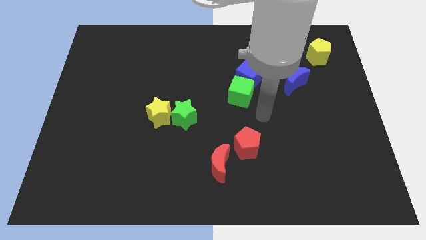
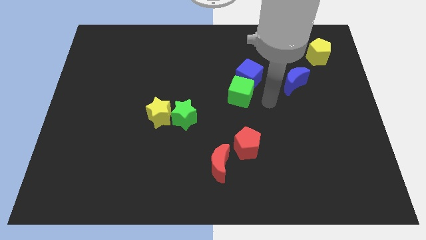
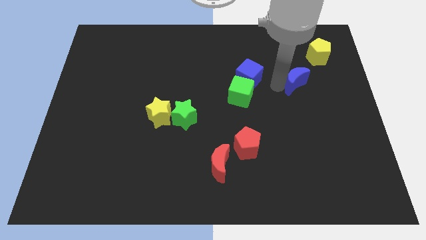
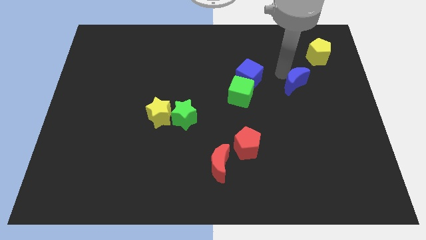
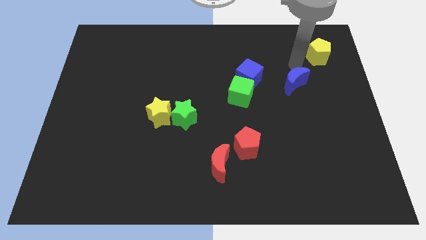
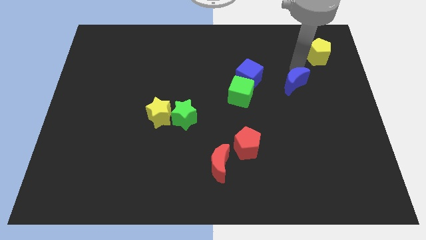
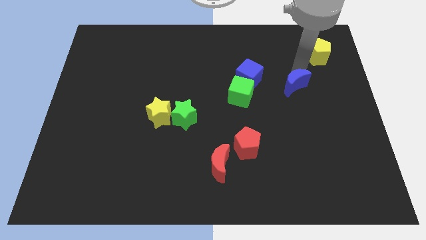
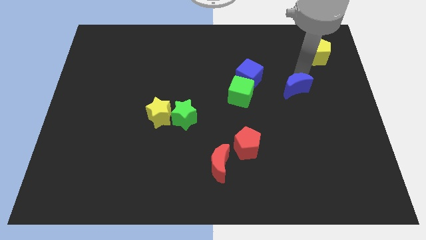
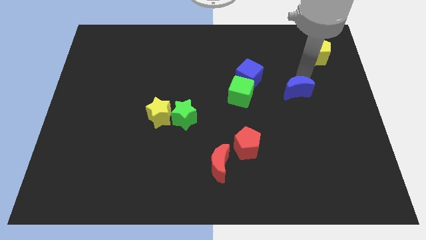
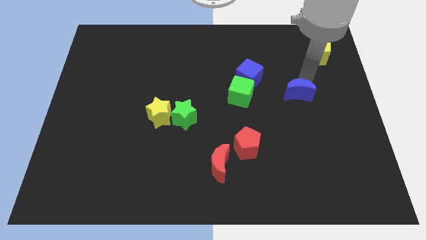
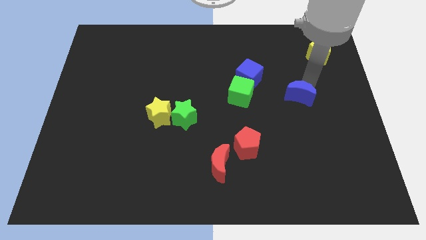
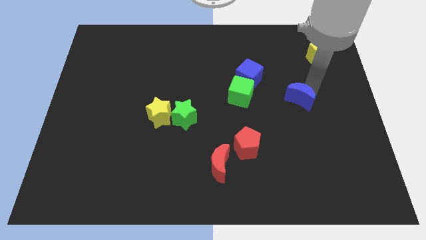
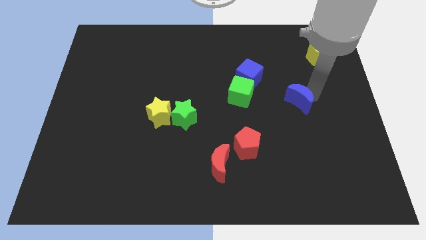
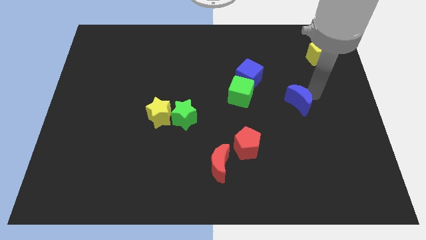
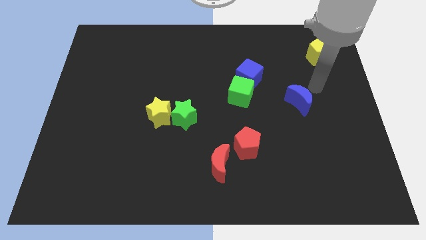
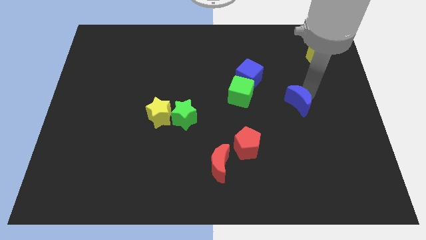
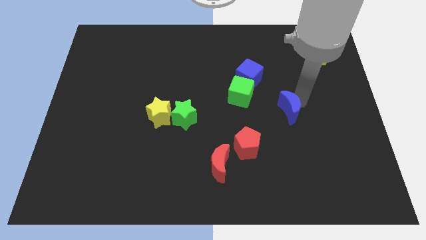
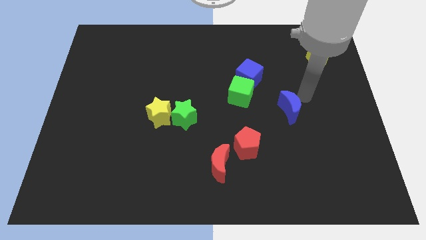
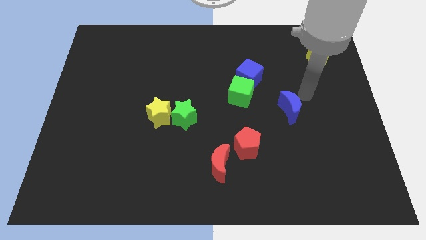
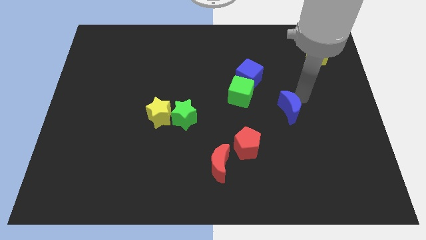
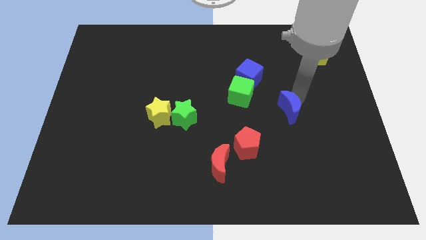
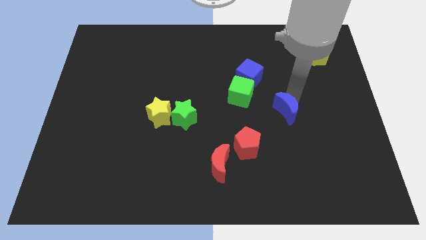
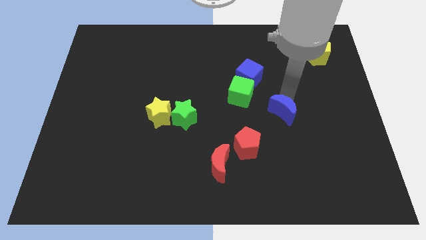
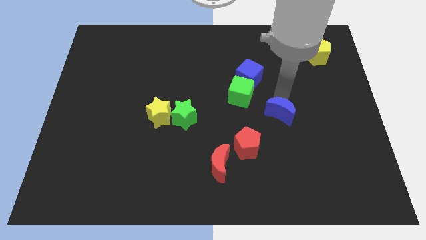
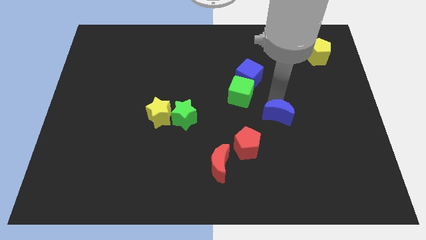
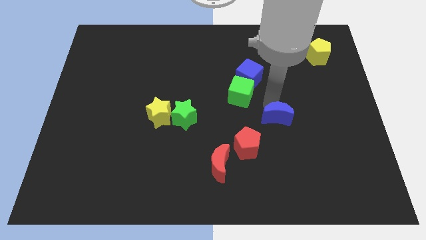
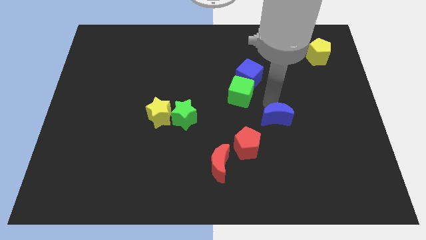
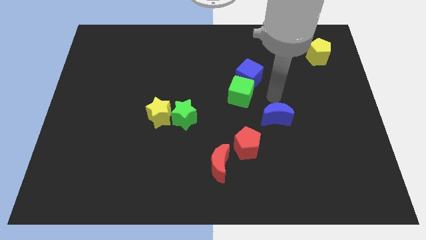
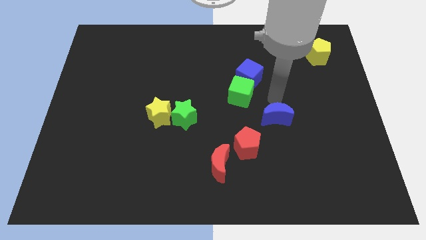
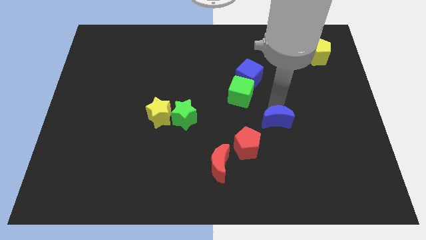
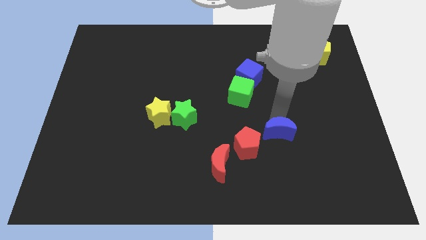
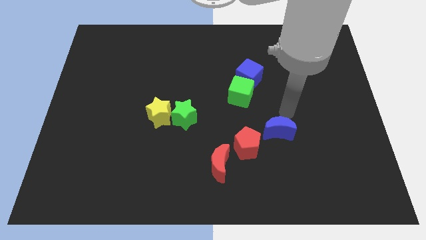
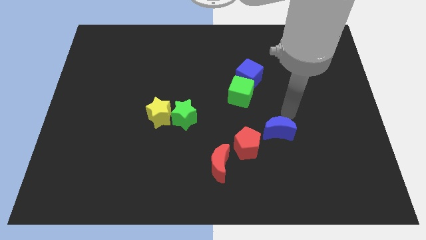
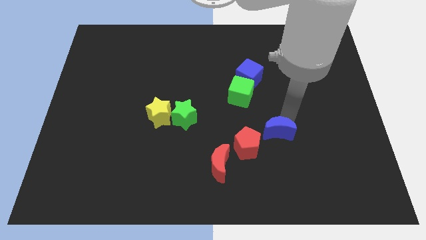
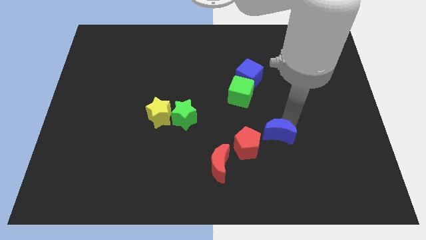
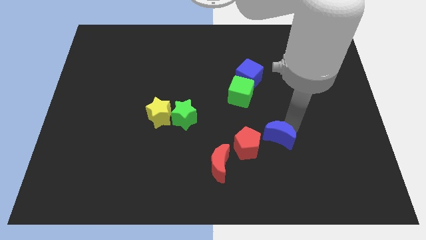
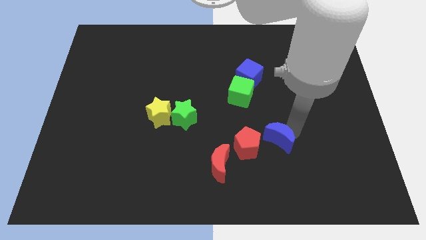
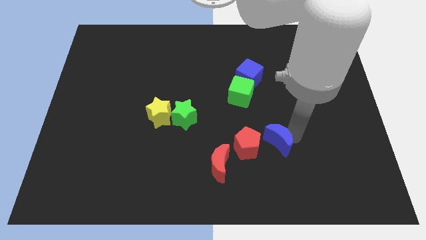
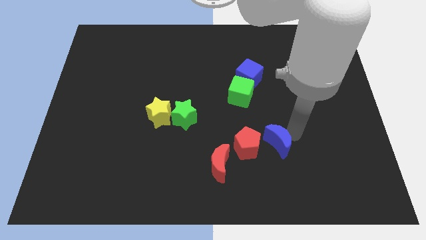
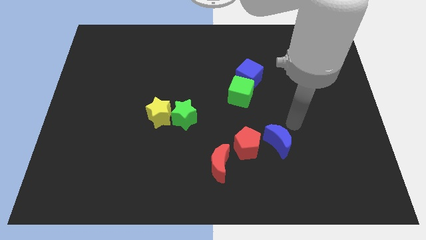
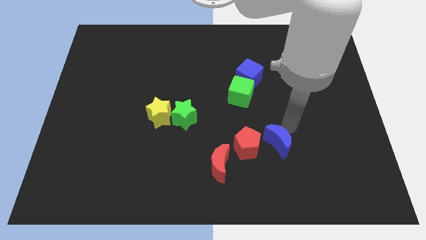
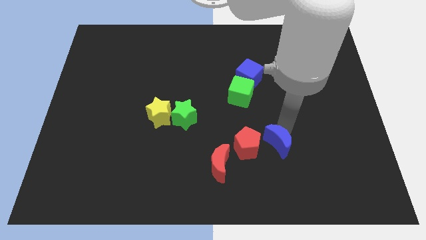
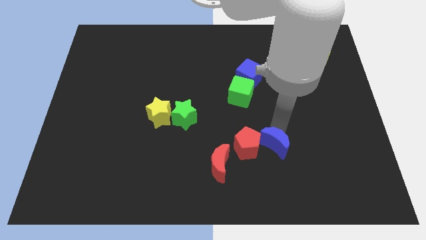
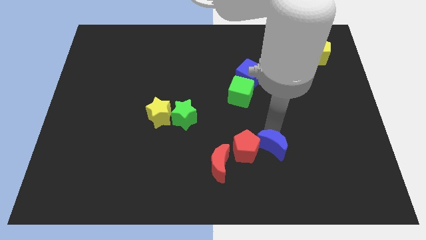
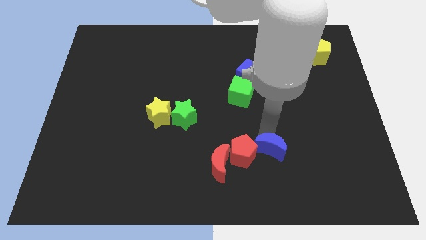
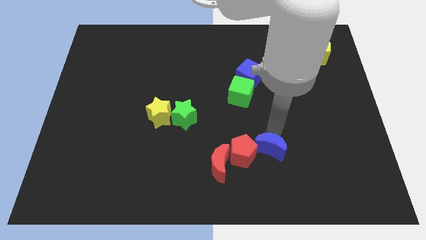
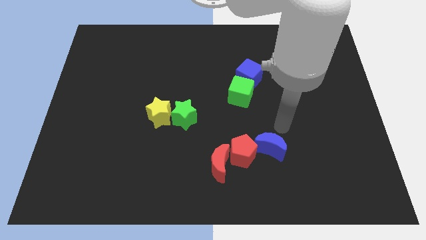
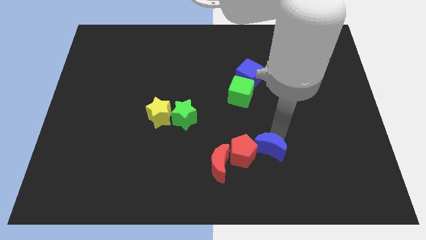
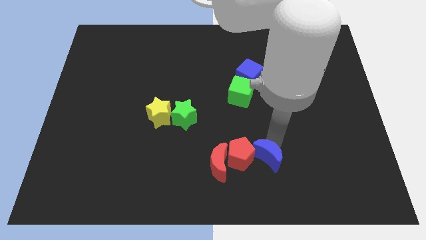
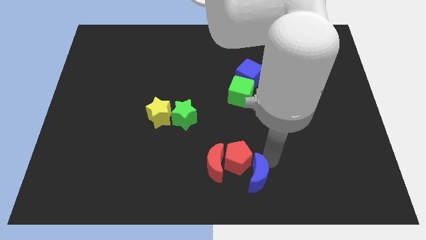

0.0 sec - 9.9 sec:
move the blue moon to the bottom side

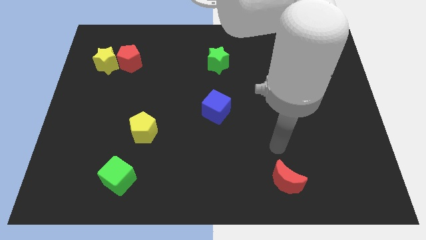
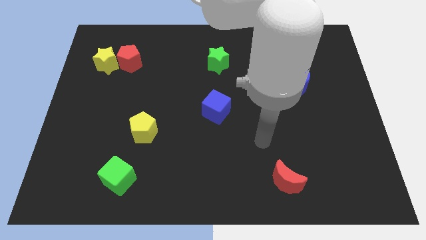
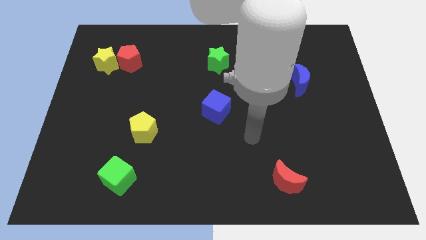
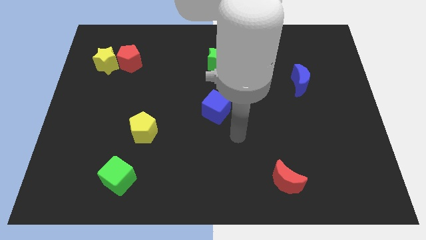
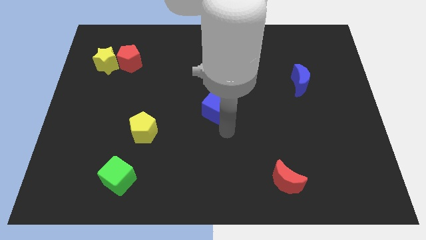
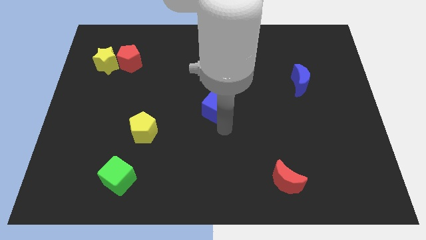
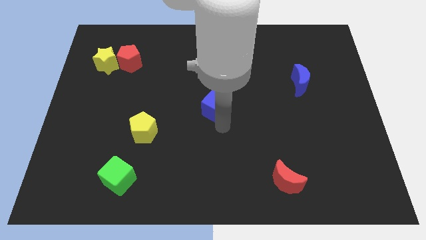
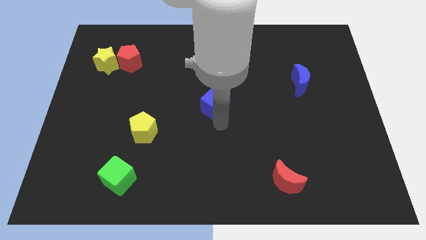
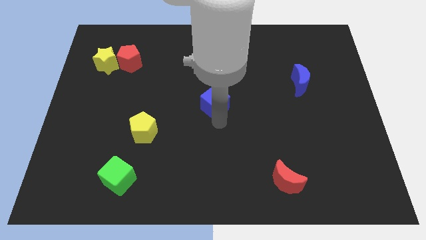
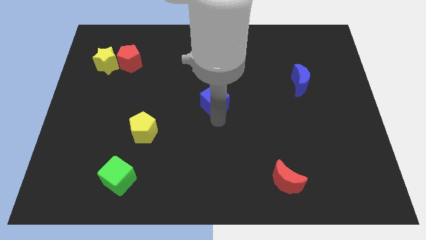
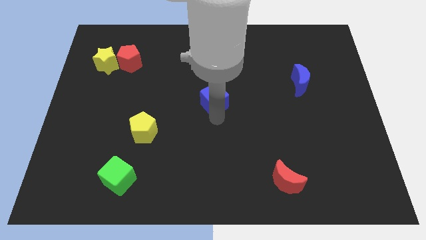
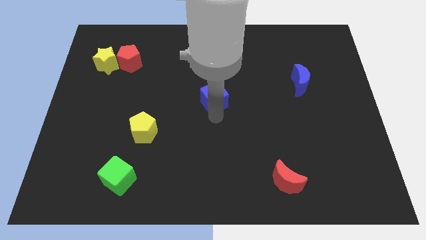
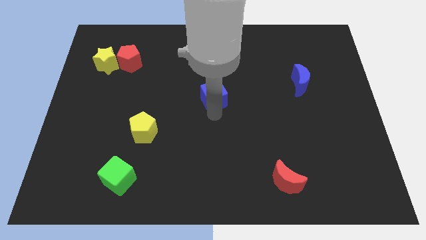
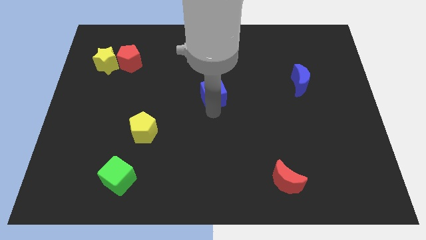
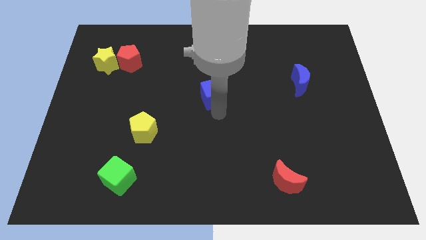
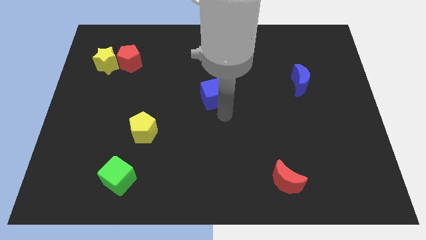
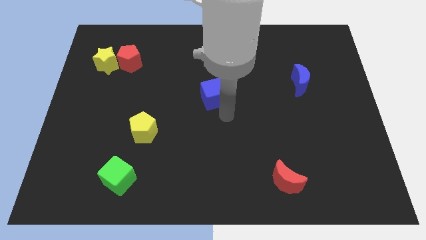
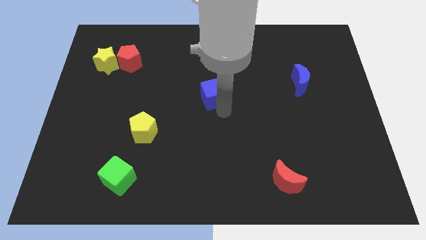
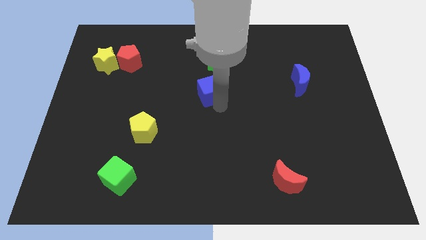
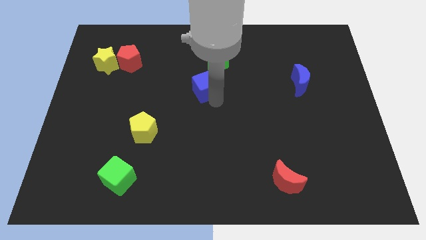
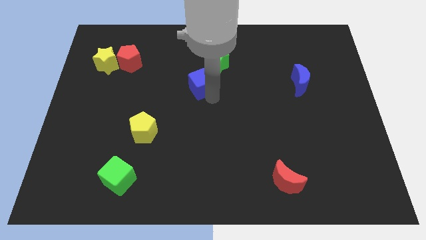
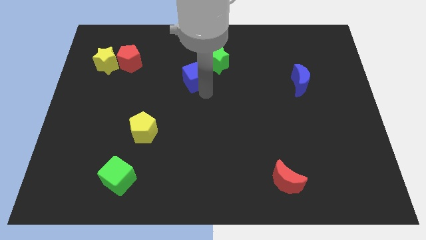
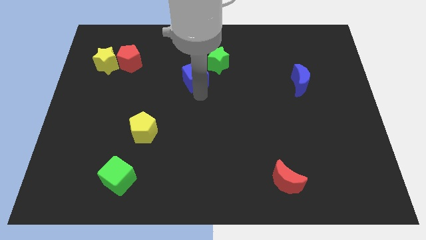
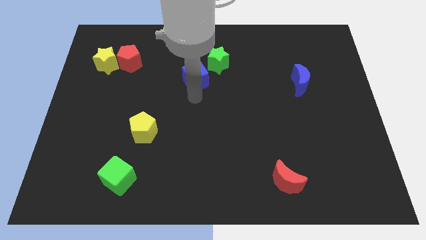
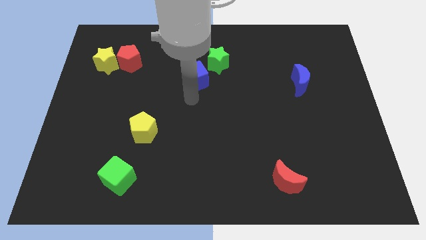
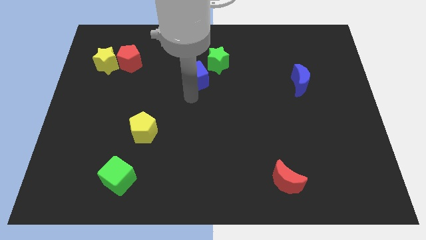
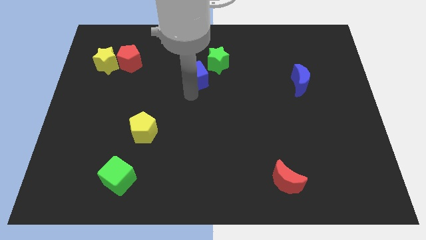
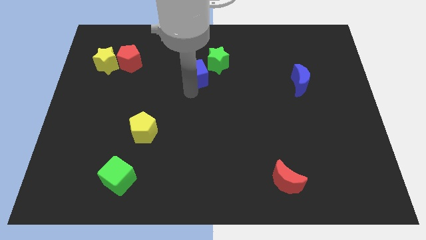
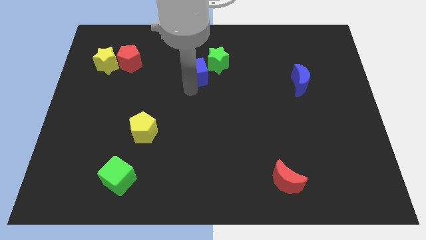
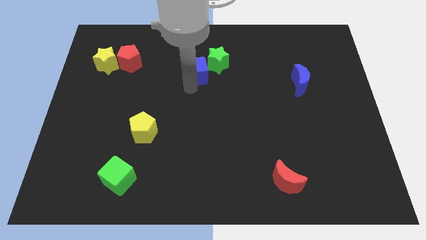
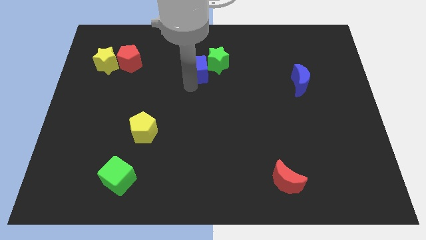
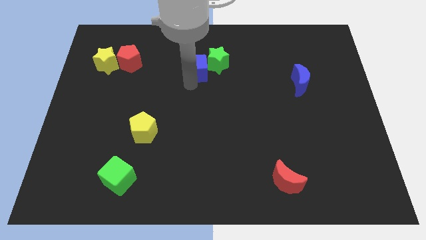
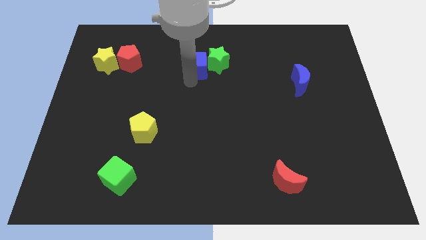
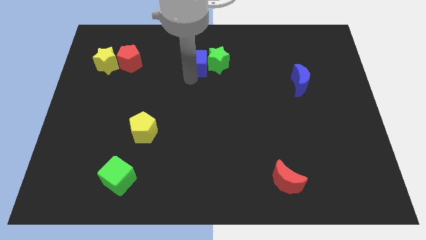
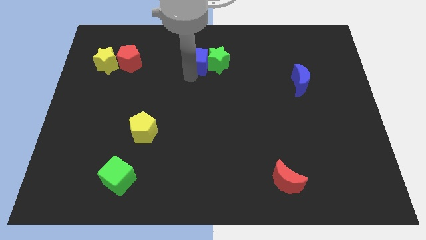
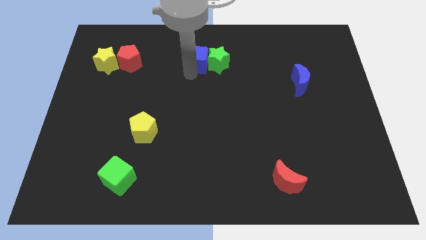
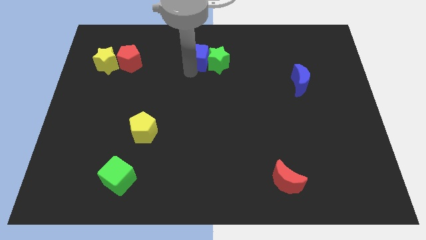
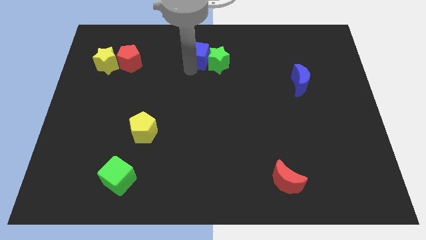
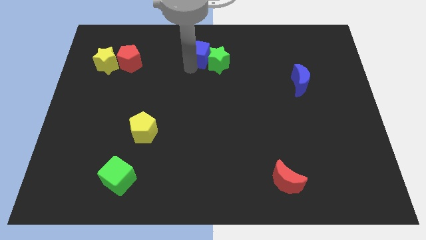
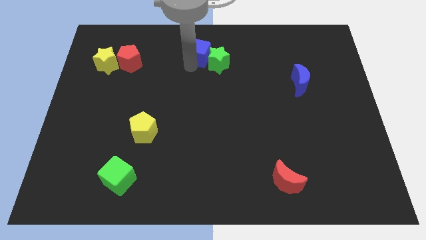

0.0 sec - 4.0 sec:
slide the blue cube to the top side
